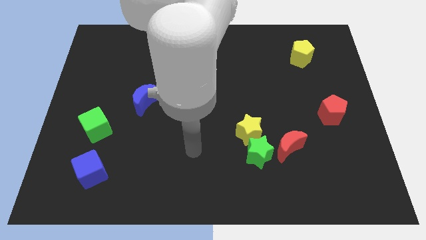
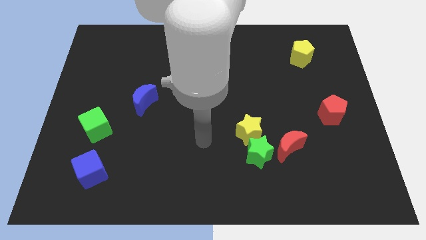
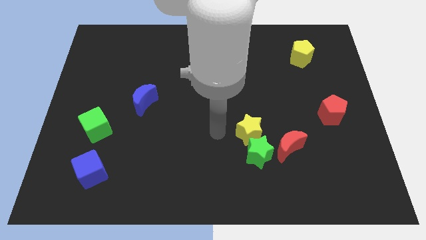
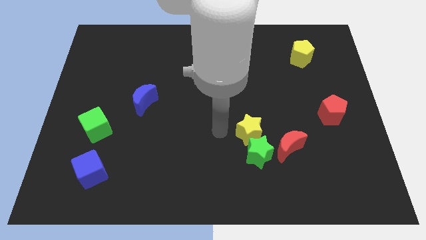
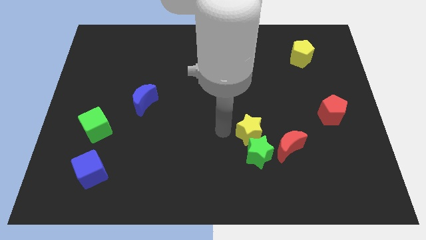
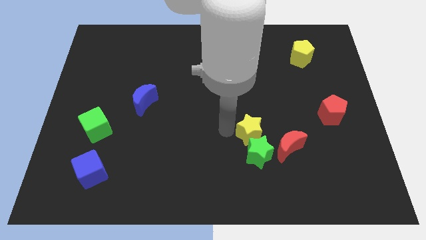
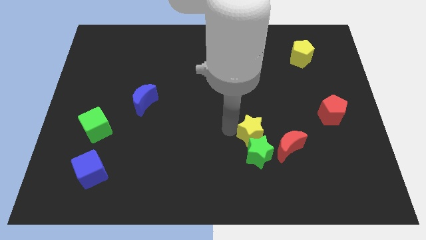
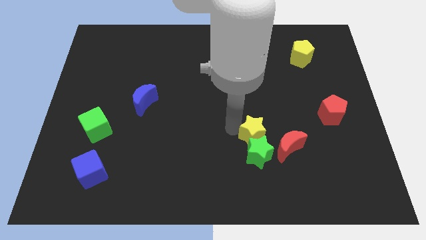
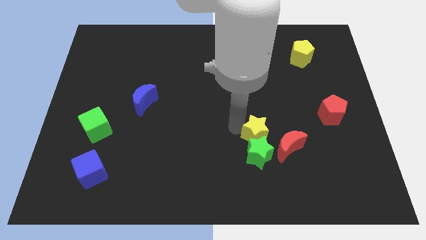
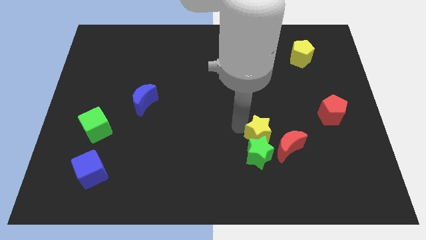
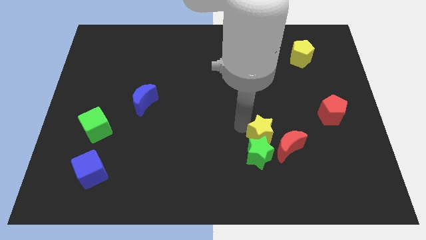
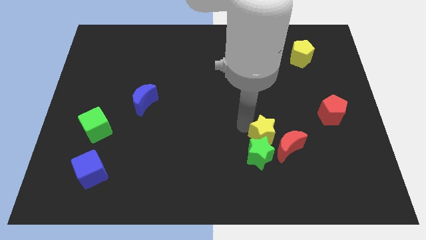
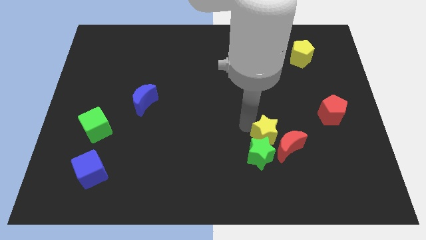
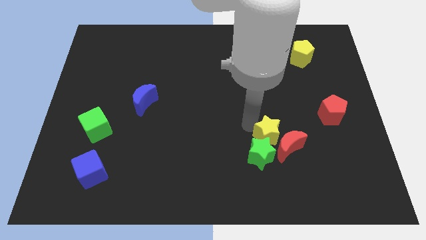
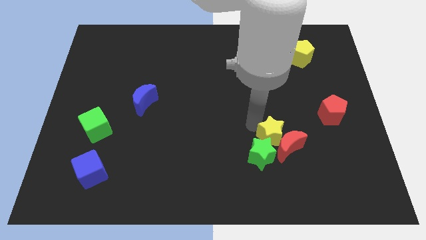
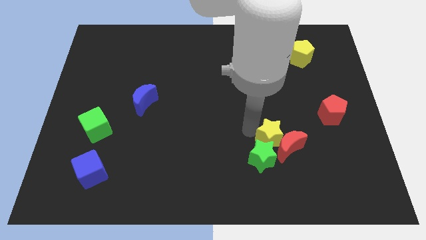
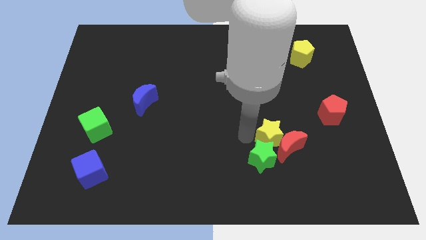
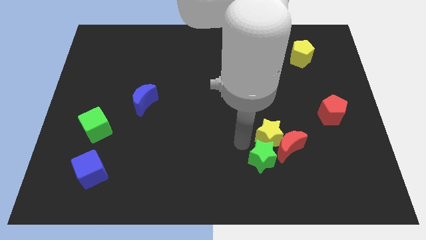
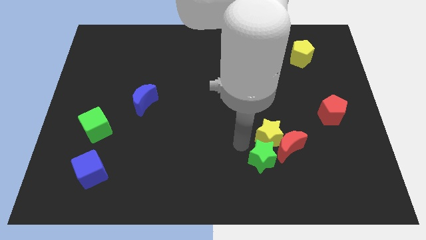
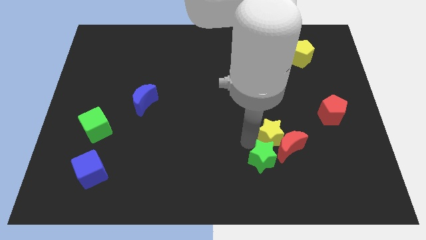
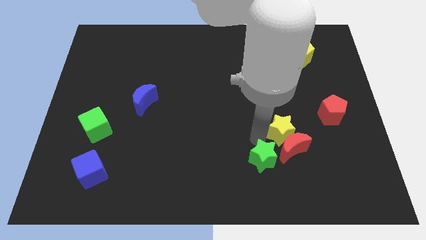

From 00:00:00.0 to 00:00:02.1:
slide the yellow star somewhat to the right

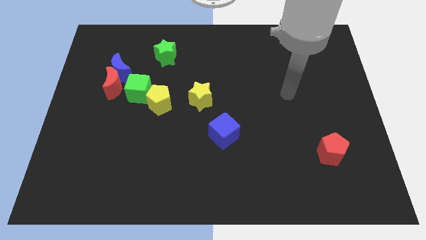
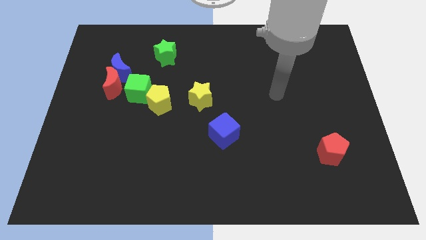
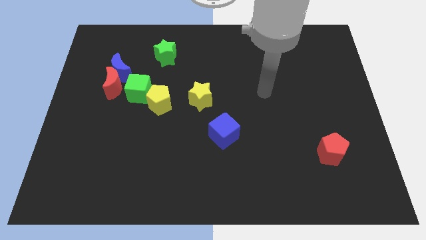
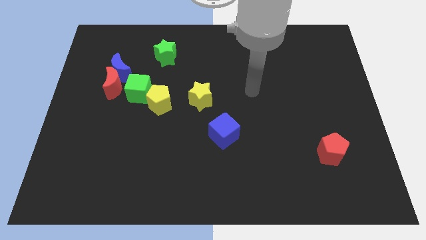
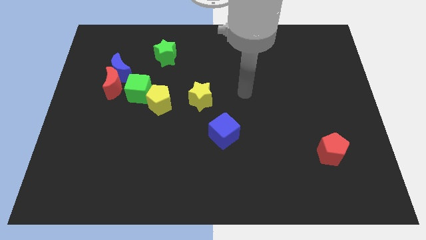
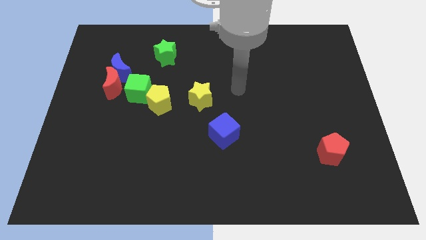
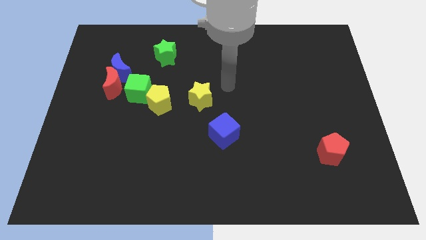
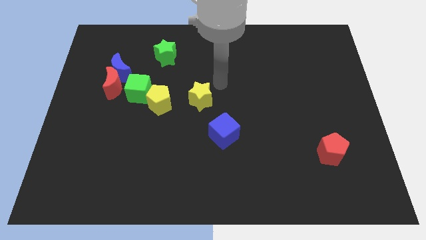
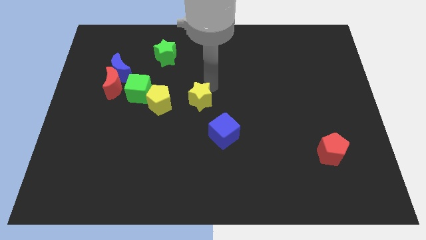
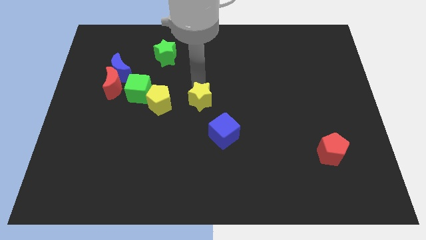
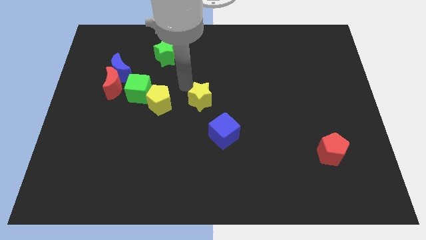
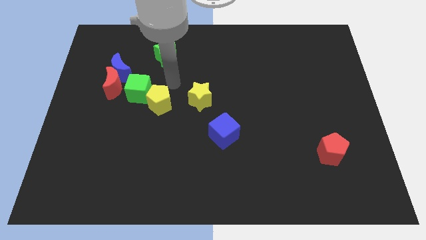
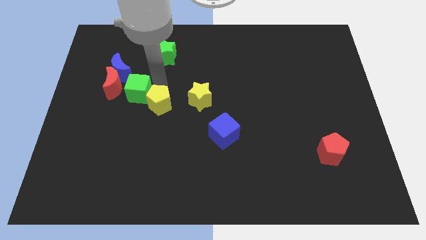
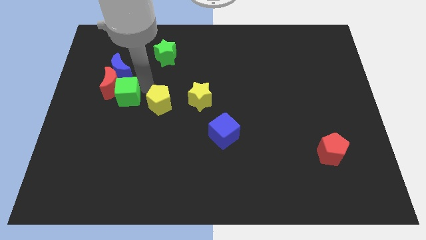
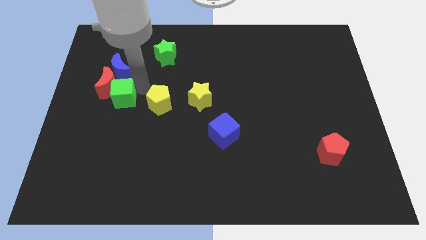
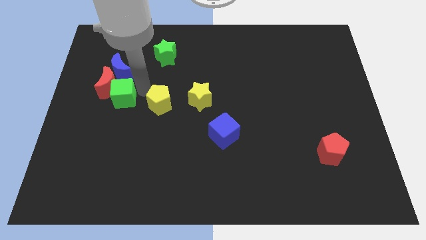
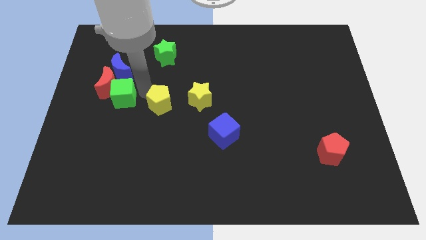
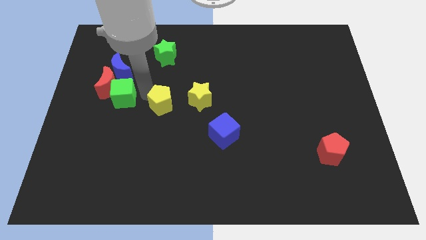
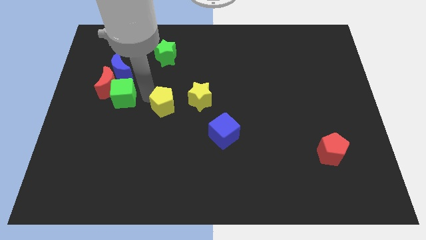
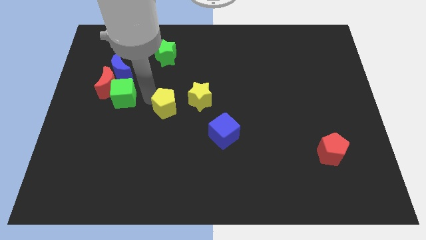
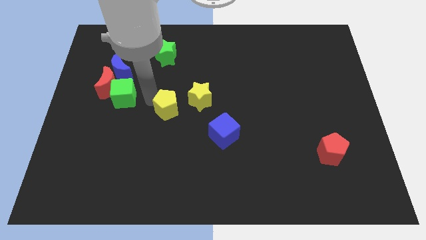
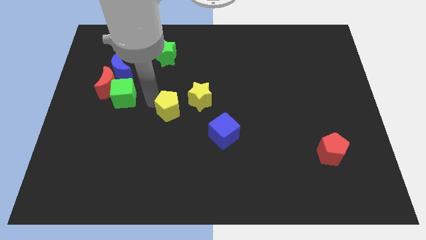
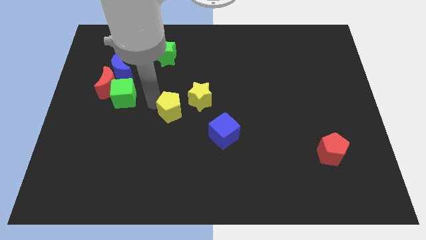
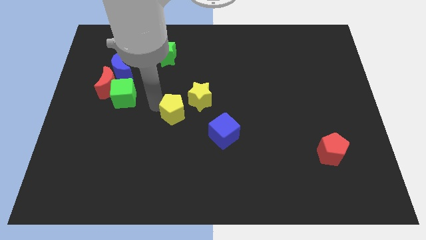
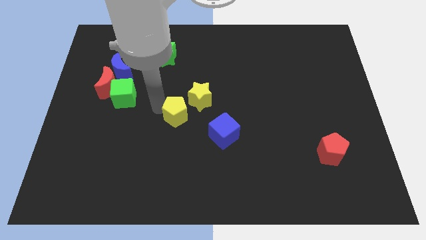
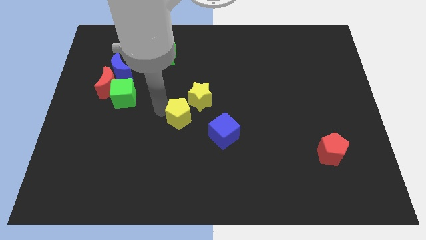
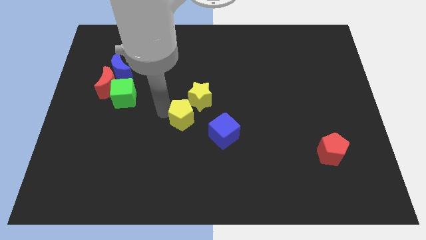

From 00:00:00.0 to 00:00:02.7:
slide the yellow pentagon slightly down and to the right diagonally

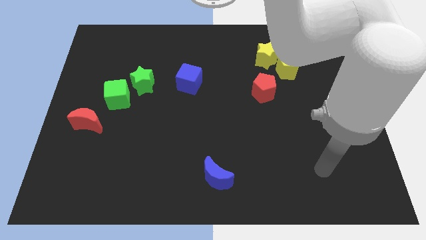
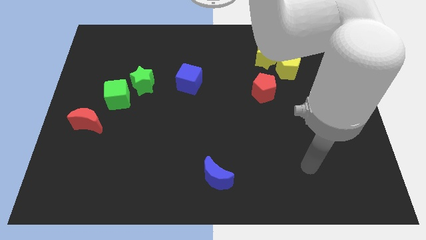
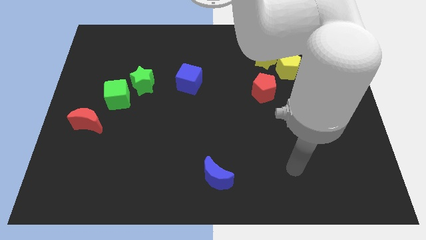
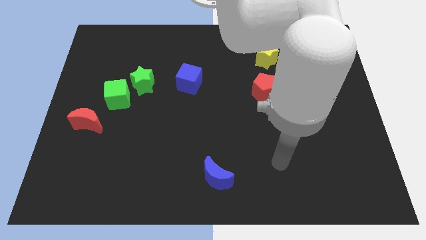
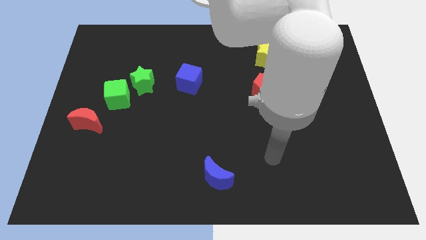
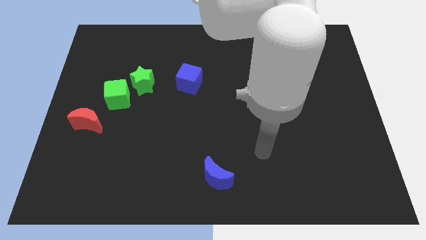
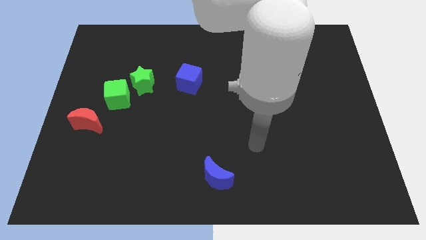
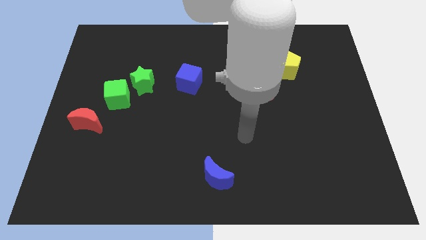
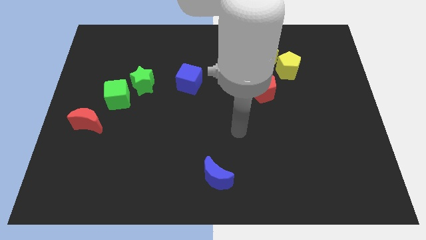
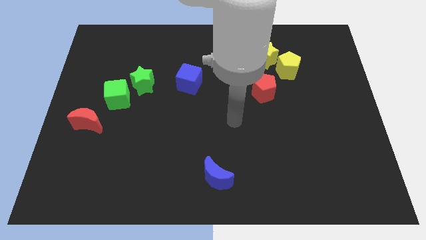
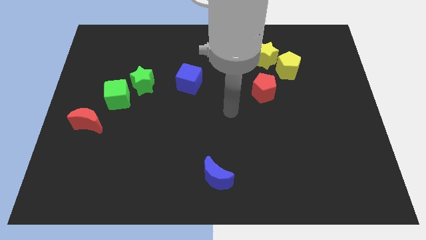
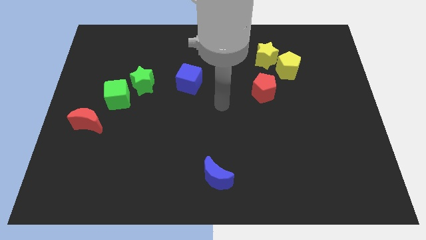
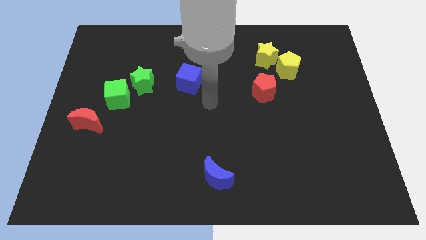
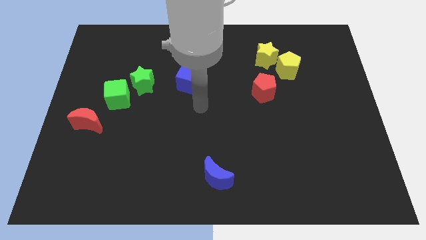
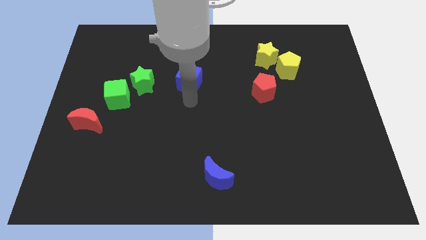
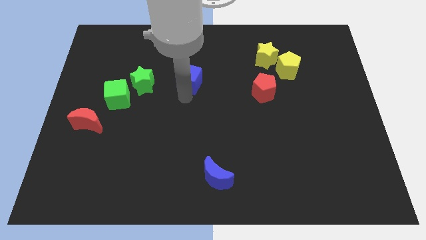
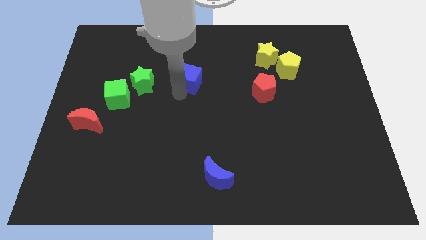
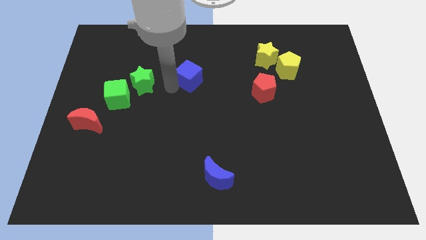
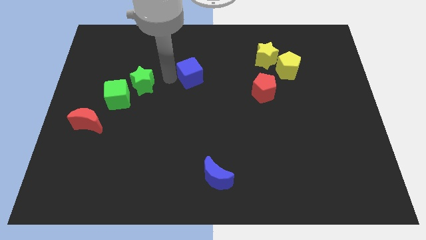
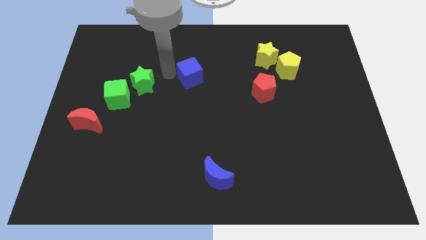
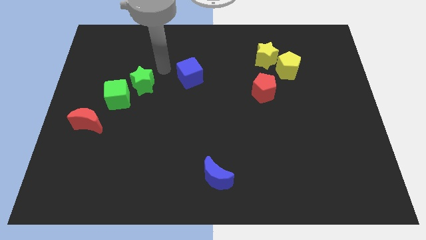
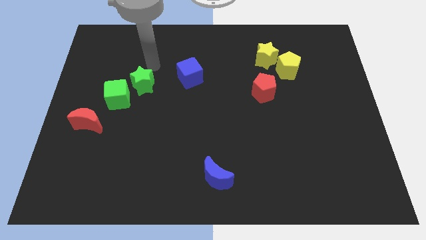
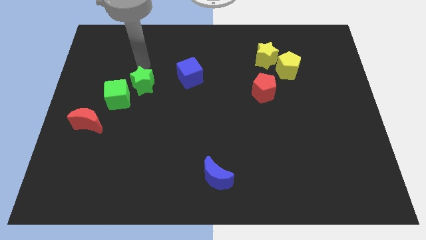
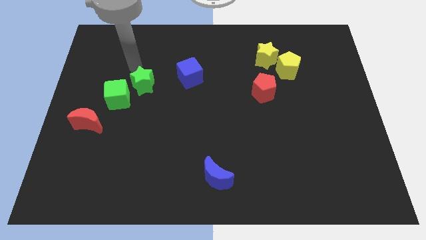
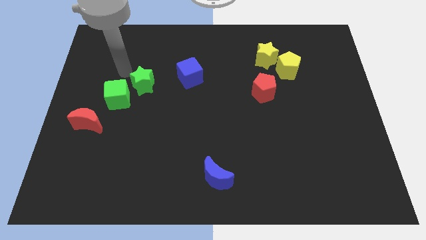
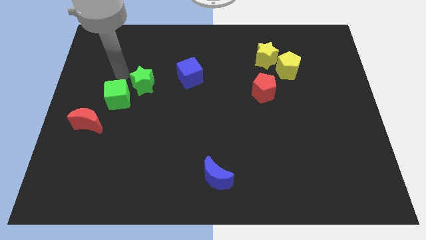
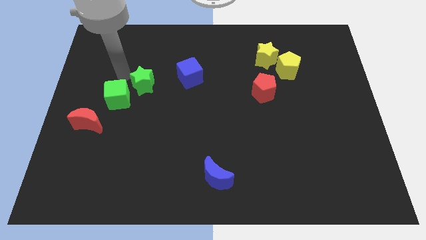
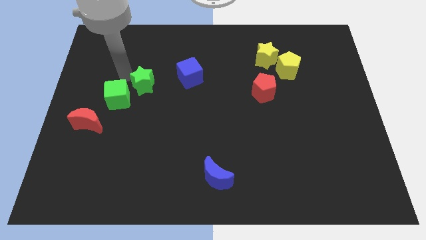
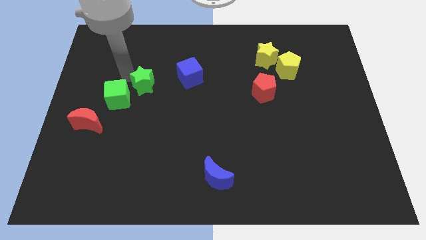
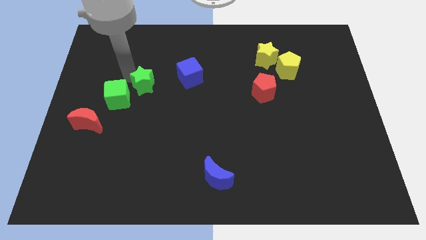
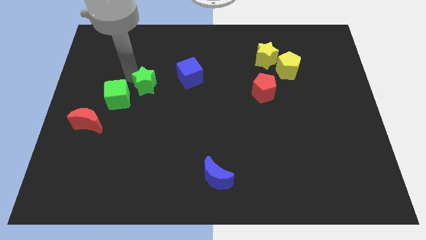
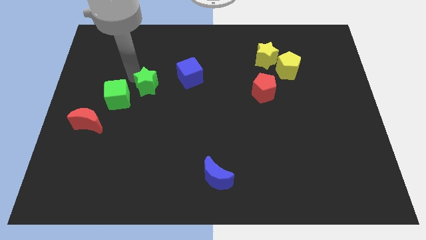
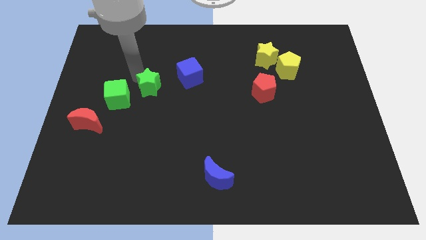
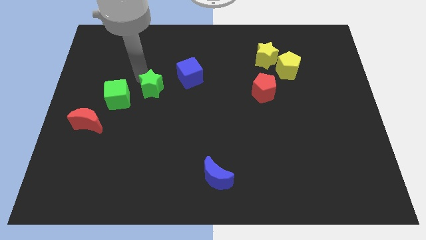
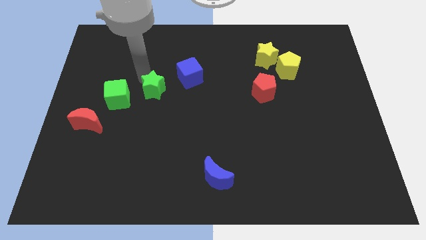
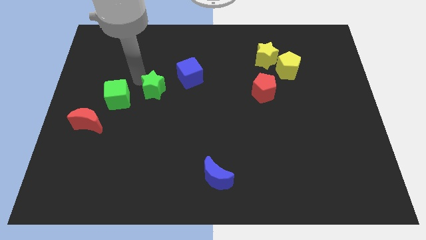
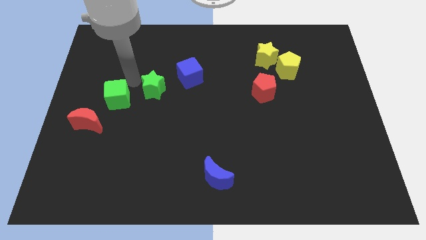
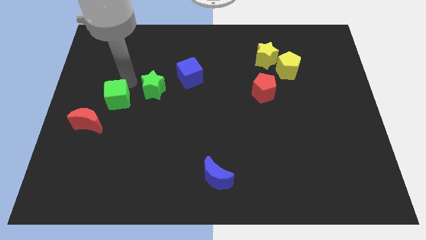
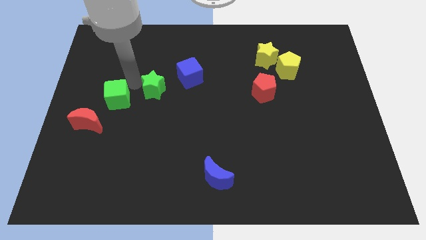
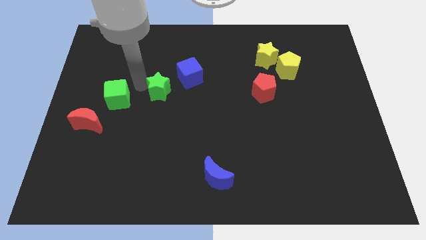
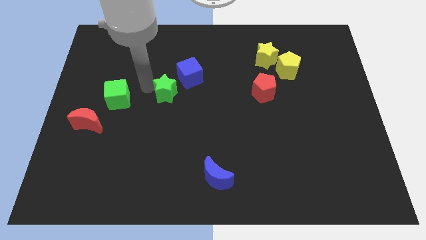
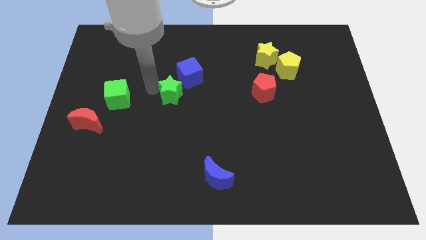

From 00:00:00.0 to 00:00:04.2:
slightly push the green star right

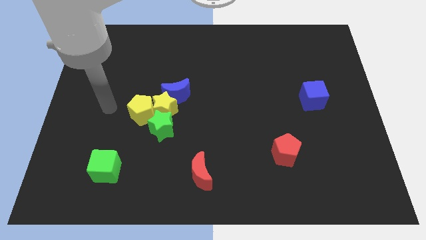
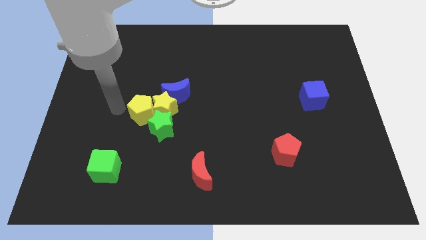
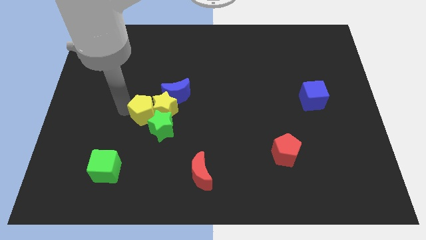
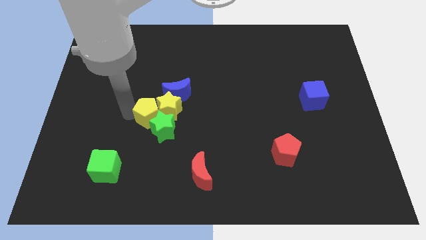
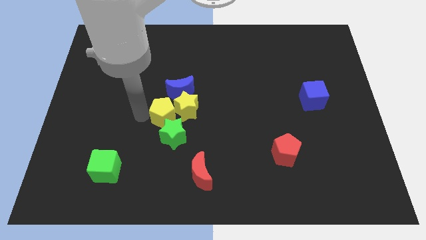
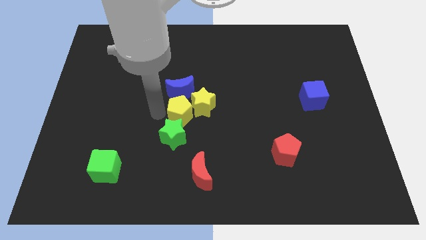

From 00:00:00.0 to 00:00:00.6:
slightly push the yellow star right
